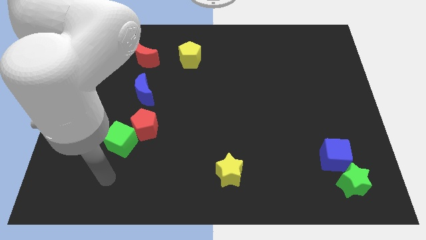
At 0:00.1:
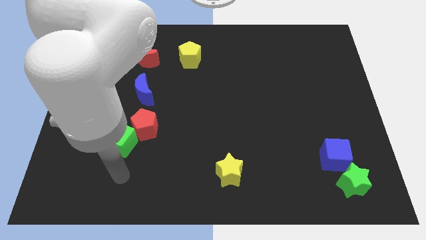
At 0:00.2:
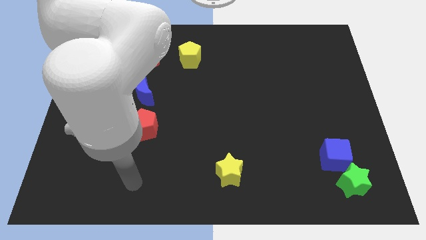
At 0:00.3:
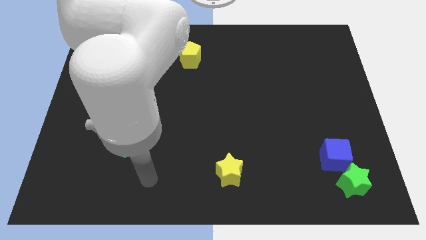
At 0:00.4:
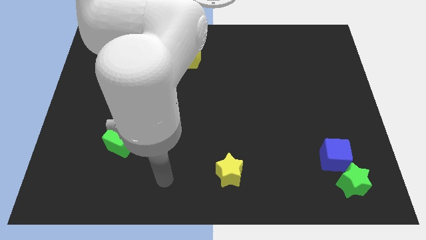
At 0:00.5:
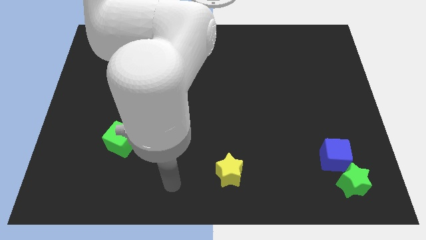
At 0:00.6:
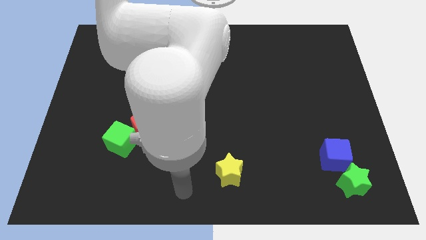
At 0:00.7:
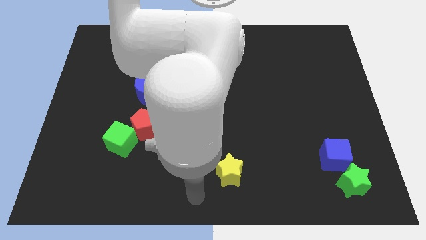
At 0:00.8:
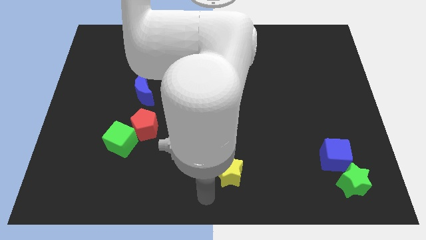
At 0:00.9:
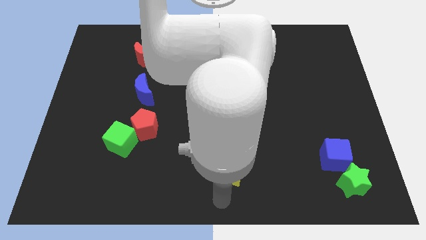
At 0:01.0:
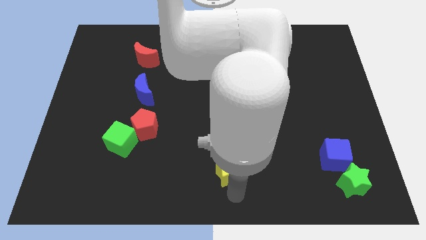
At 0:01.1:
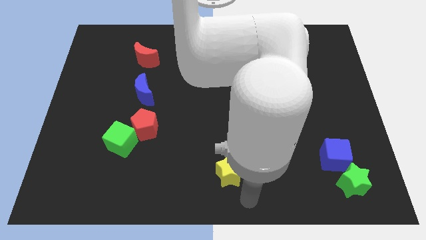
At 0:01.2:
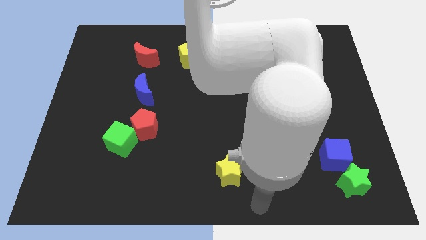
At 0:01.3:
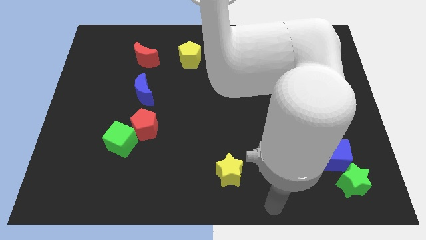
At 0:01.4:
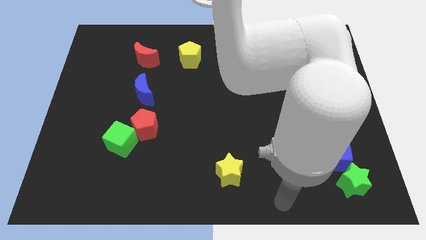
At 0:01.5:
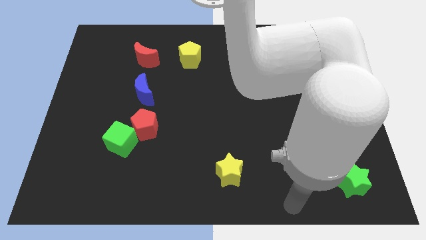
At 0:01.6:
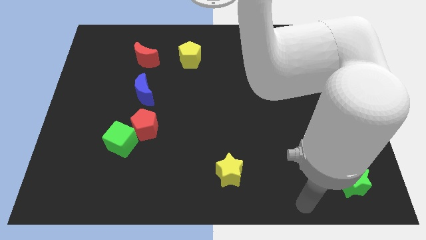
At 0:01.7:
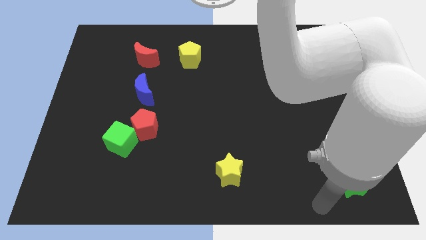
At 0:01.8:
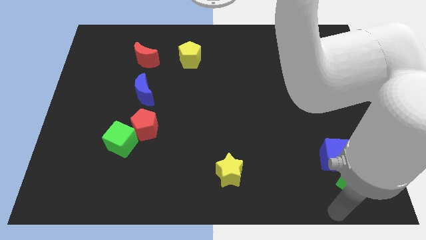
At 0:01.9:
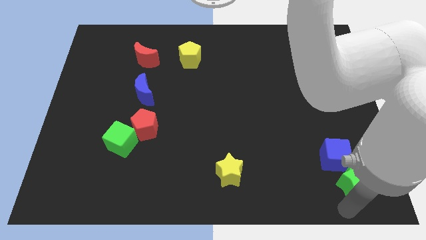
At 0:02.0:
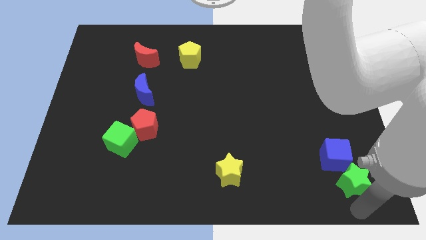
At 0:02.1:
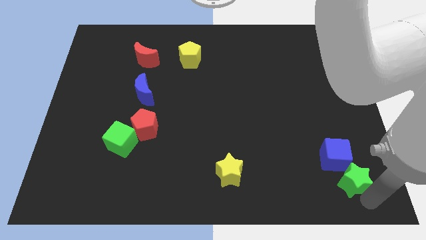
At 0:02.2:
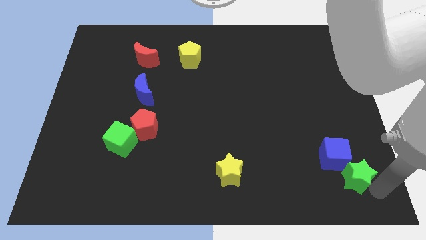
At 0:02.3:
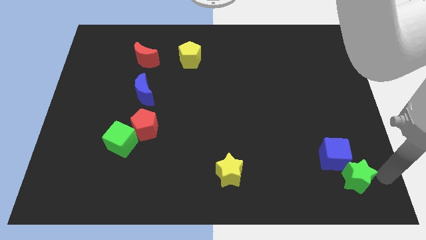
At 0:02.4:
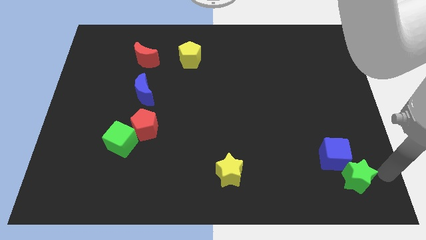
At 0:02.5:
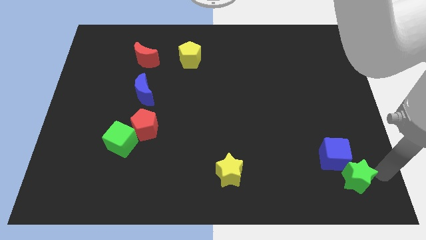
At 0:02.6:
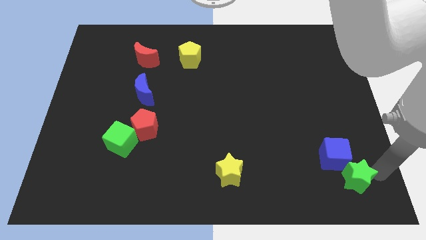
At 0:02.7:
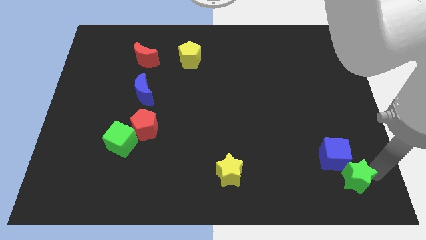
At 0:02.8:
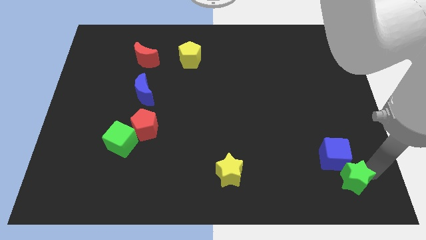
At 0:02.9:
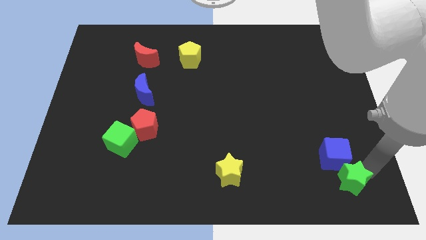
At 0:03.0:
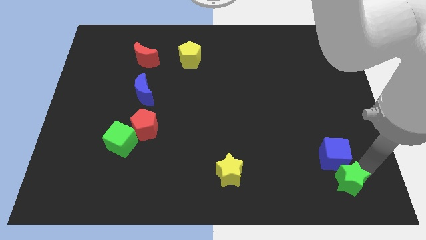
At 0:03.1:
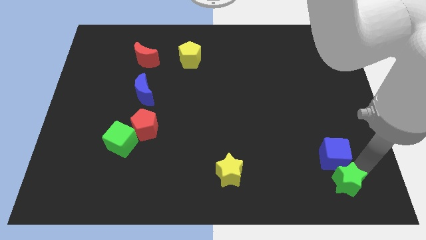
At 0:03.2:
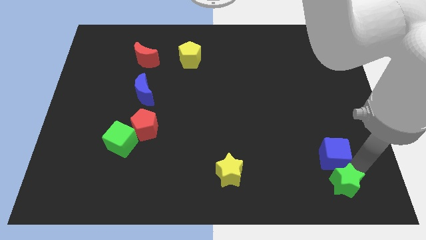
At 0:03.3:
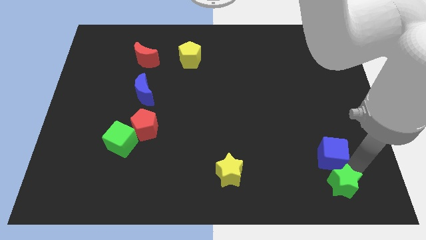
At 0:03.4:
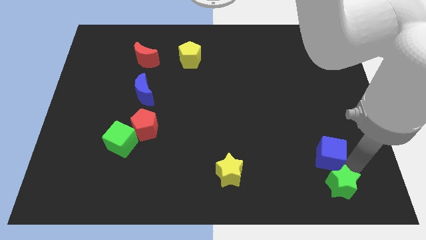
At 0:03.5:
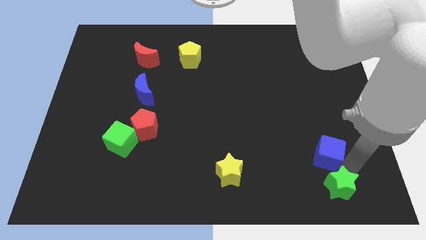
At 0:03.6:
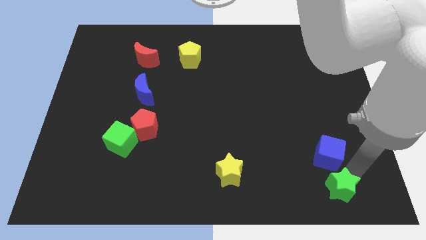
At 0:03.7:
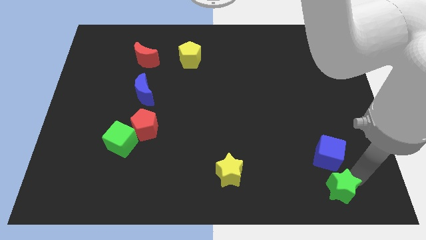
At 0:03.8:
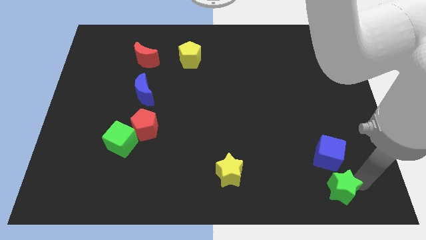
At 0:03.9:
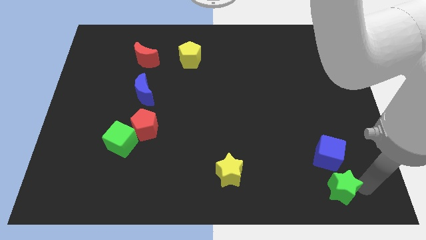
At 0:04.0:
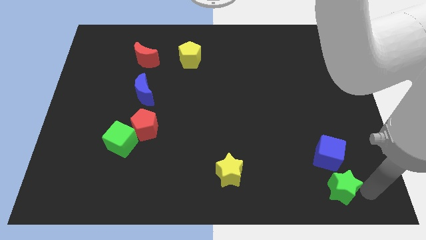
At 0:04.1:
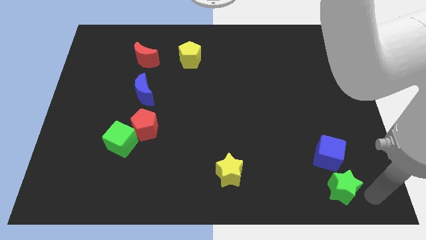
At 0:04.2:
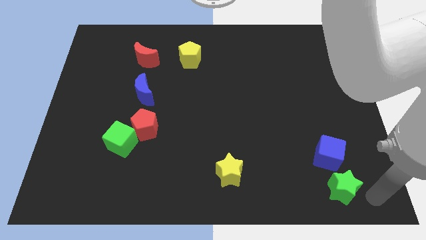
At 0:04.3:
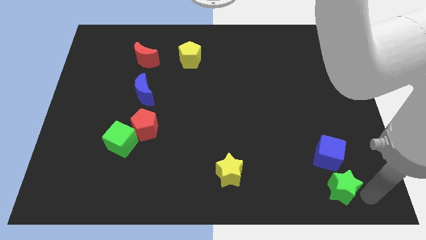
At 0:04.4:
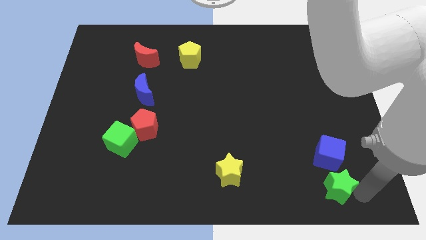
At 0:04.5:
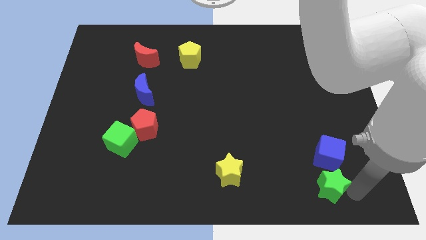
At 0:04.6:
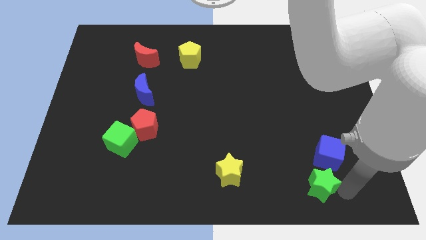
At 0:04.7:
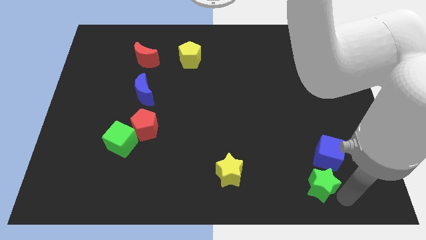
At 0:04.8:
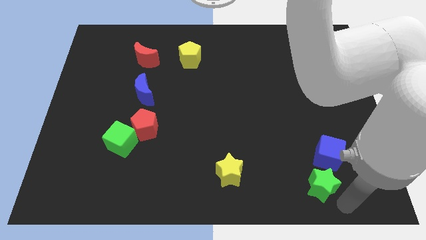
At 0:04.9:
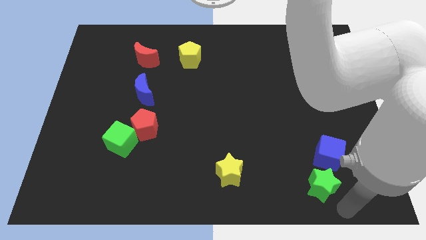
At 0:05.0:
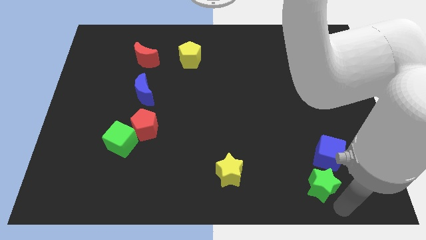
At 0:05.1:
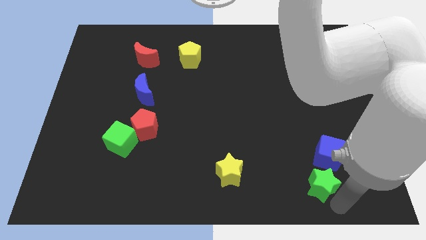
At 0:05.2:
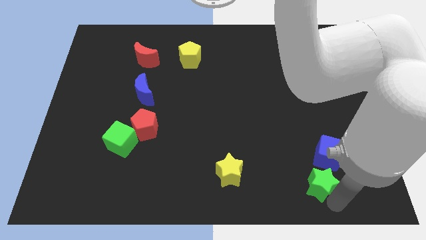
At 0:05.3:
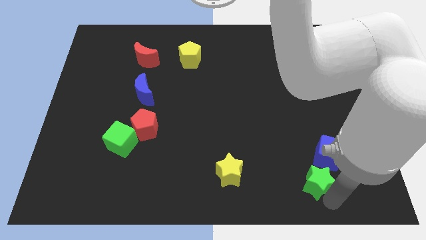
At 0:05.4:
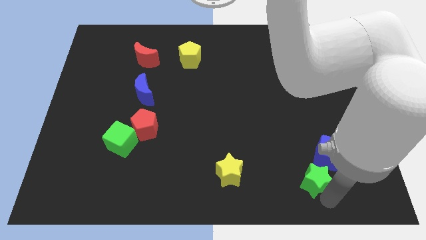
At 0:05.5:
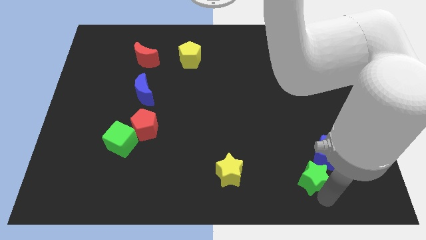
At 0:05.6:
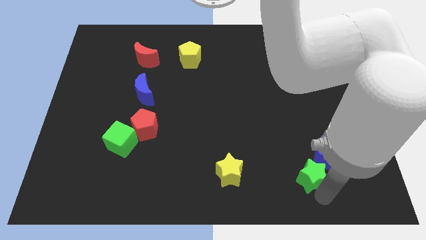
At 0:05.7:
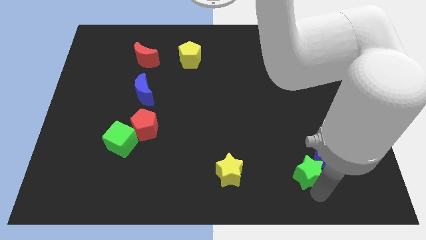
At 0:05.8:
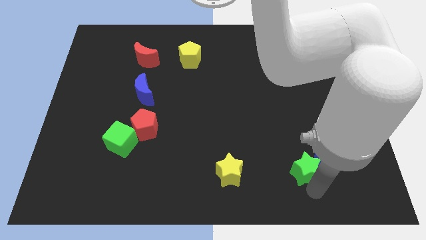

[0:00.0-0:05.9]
push the green star a little diagonally up and left

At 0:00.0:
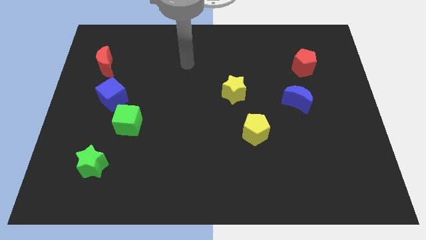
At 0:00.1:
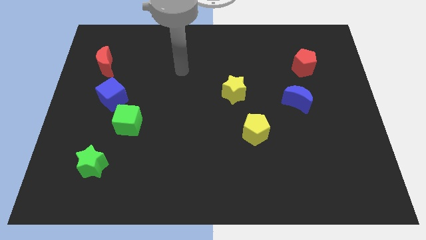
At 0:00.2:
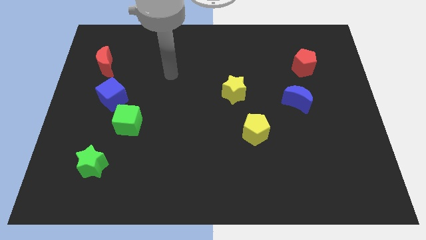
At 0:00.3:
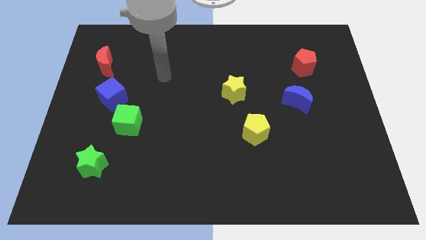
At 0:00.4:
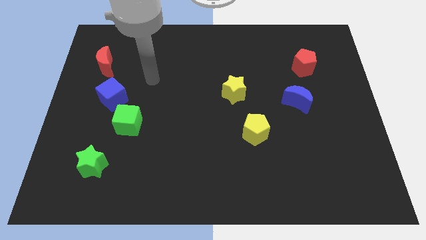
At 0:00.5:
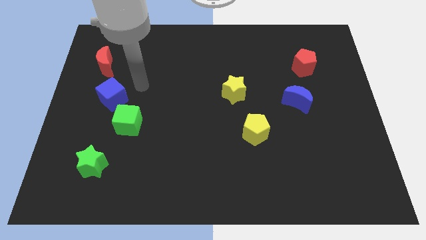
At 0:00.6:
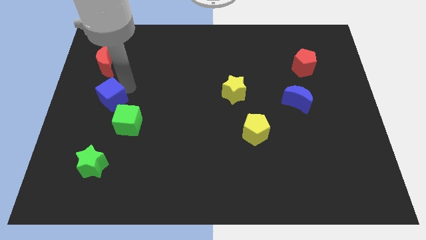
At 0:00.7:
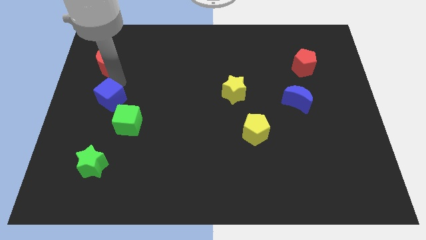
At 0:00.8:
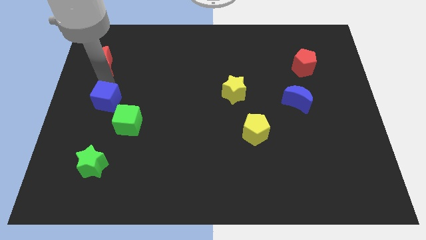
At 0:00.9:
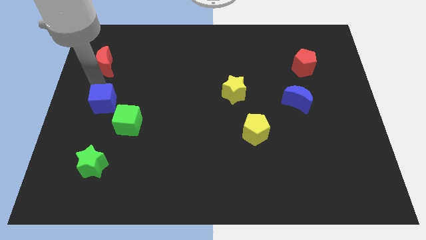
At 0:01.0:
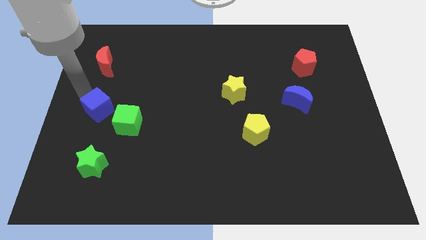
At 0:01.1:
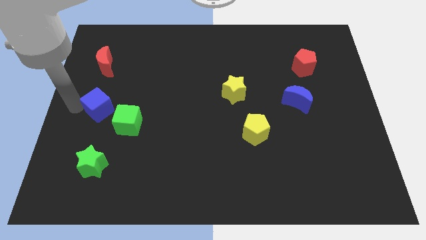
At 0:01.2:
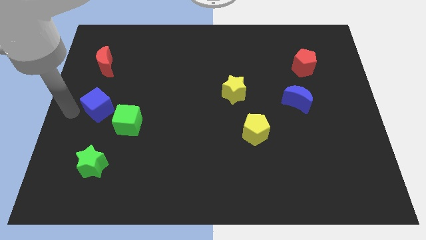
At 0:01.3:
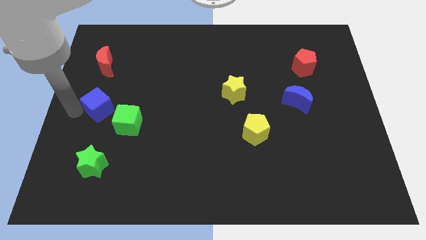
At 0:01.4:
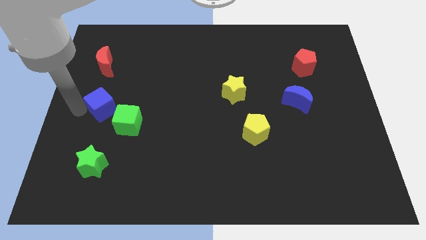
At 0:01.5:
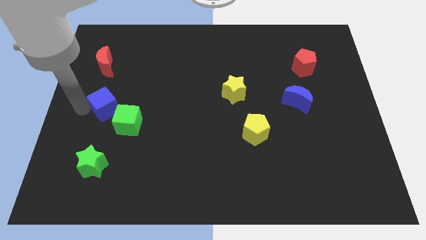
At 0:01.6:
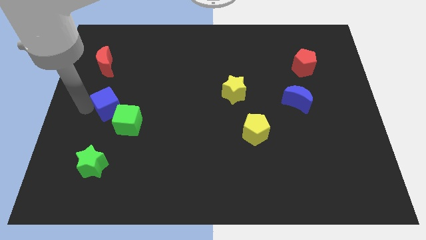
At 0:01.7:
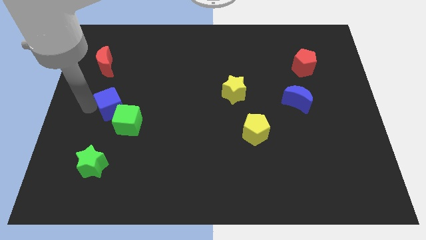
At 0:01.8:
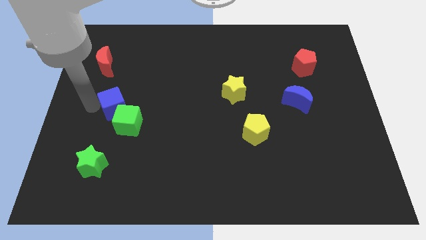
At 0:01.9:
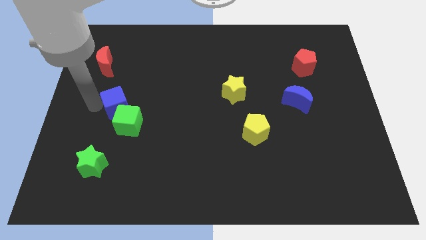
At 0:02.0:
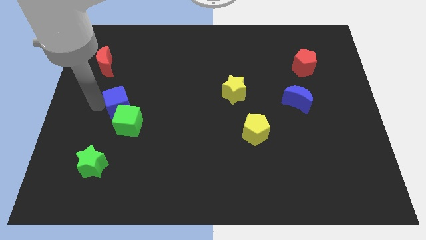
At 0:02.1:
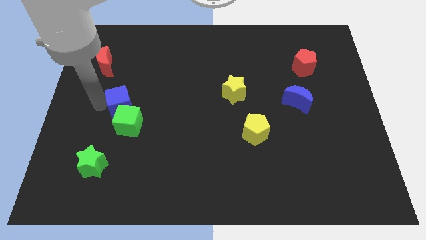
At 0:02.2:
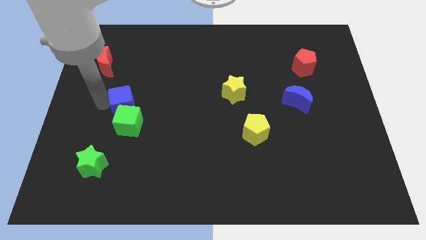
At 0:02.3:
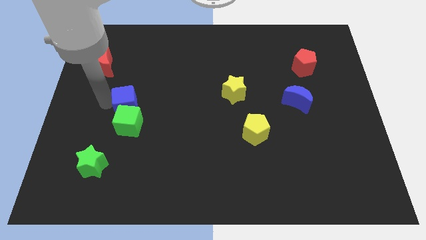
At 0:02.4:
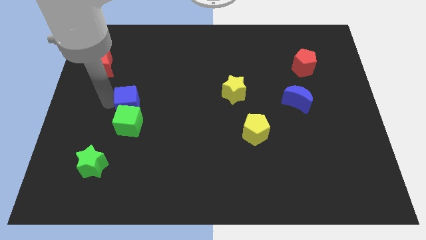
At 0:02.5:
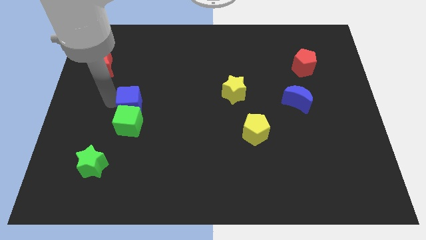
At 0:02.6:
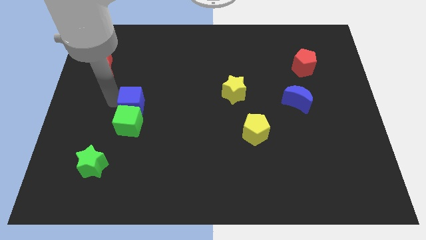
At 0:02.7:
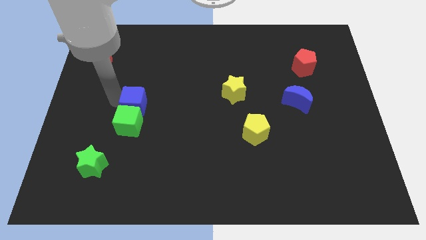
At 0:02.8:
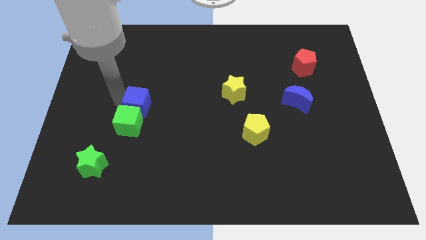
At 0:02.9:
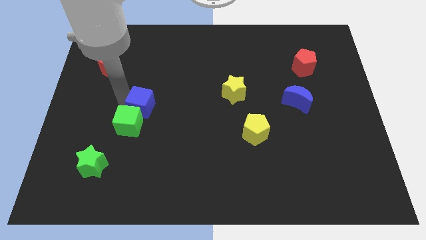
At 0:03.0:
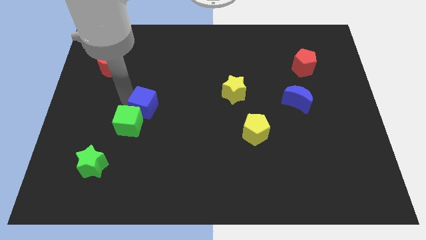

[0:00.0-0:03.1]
push the blue cube somewhat downwards and then right
